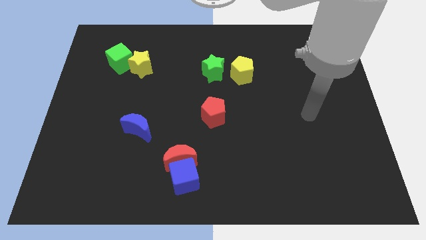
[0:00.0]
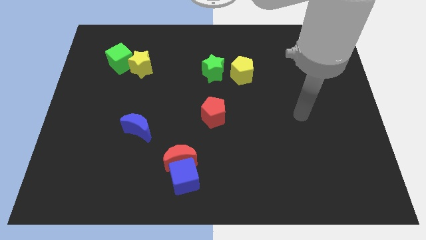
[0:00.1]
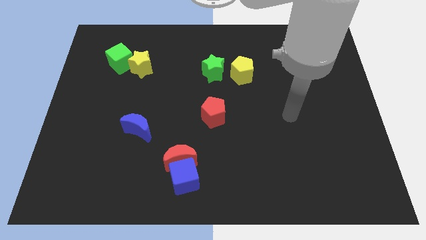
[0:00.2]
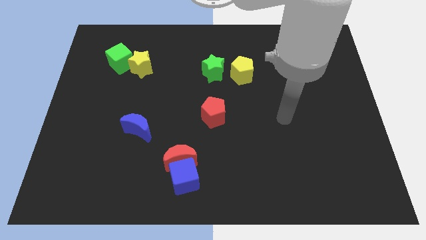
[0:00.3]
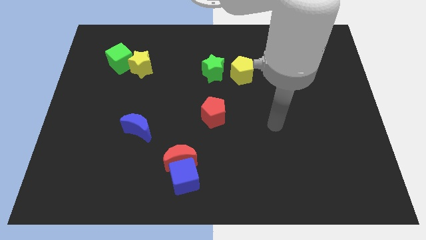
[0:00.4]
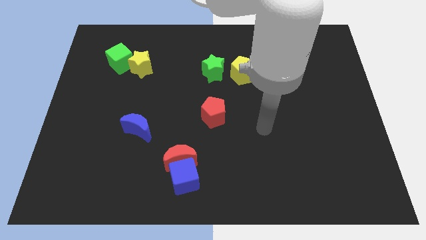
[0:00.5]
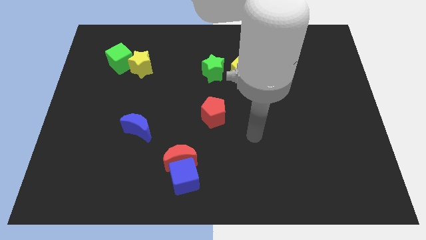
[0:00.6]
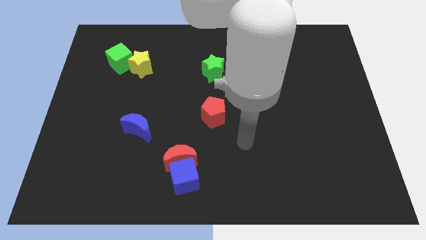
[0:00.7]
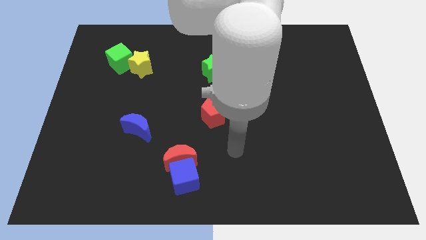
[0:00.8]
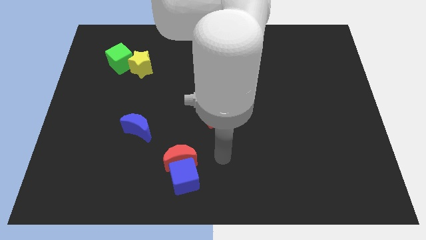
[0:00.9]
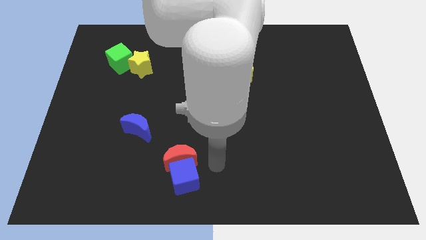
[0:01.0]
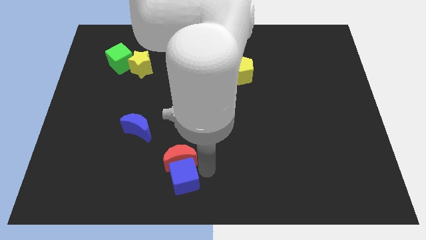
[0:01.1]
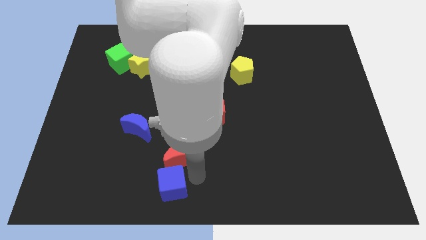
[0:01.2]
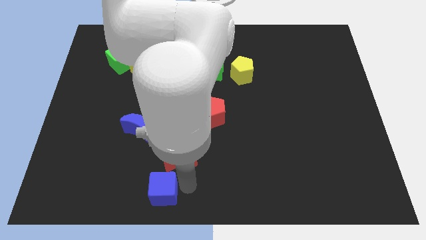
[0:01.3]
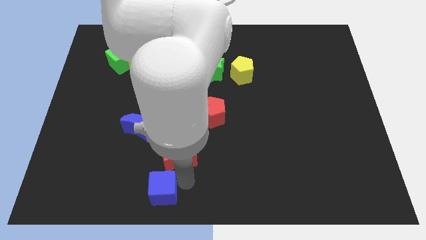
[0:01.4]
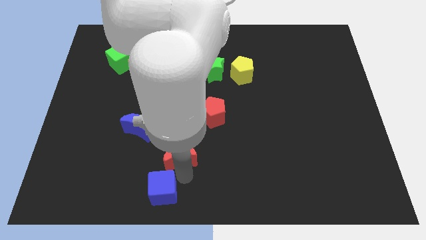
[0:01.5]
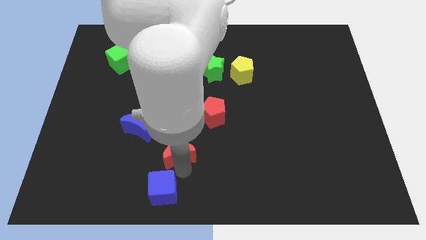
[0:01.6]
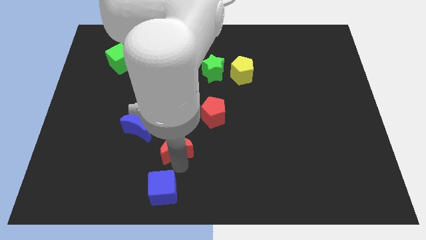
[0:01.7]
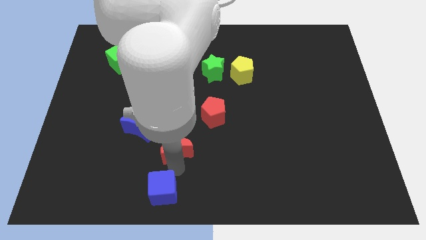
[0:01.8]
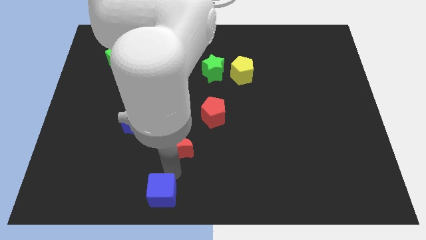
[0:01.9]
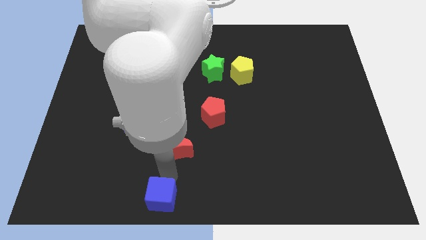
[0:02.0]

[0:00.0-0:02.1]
move the red moon away from the blue cube

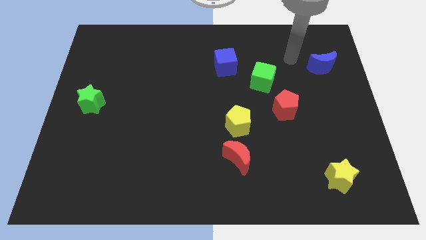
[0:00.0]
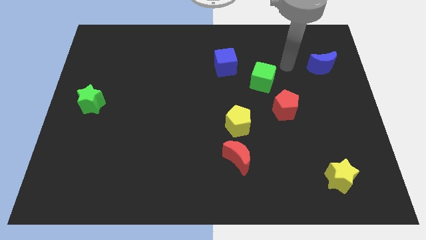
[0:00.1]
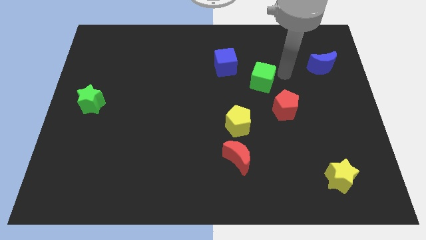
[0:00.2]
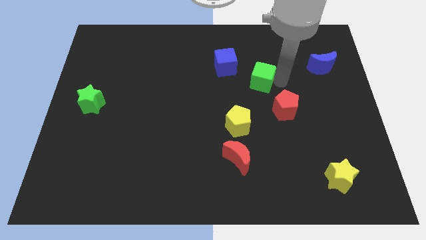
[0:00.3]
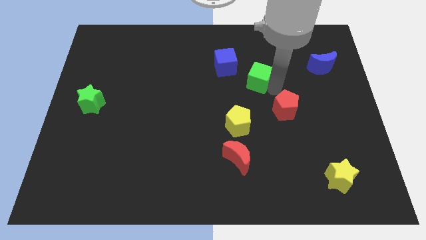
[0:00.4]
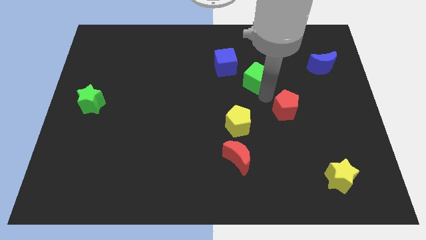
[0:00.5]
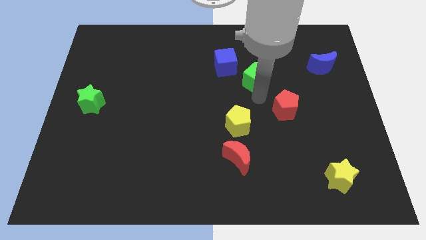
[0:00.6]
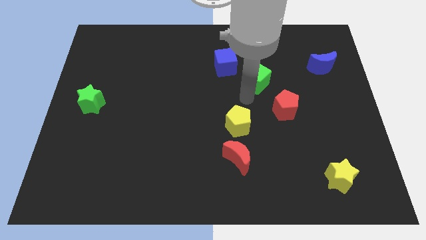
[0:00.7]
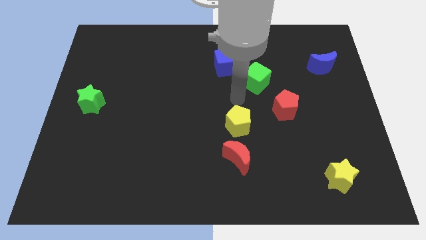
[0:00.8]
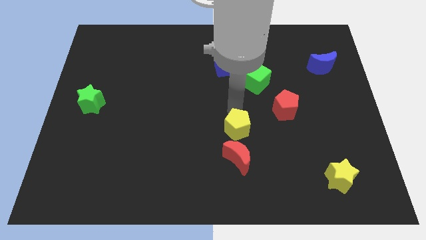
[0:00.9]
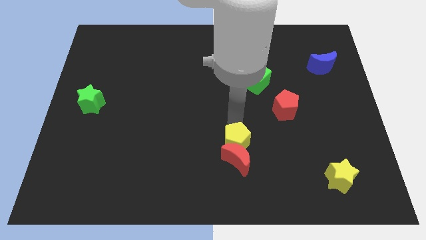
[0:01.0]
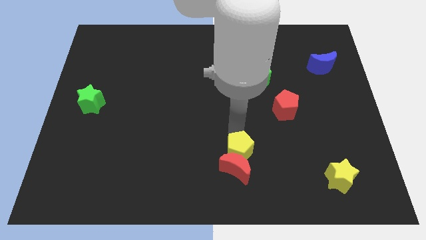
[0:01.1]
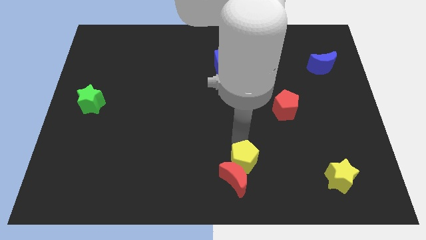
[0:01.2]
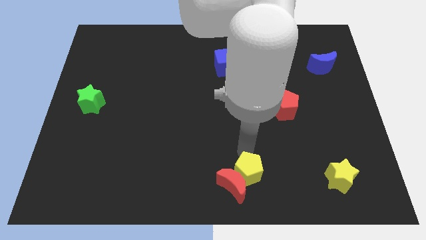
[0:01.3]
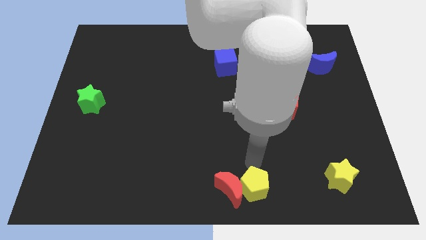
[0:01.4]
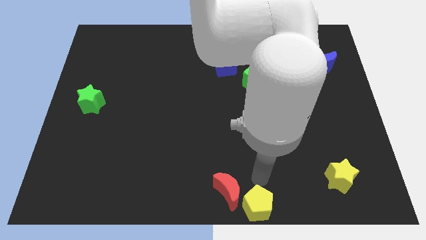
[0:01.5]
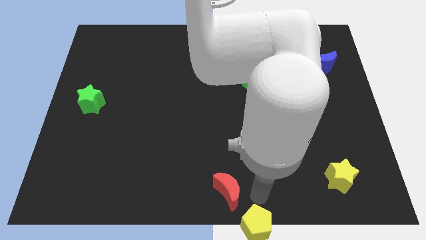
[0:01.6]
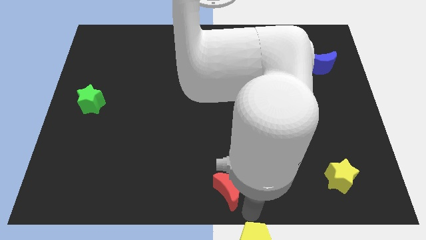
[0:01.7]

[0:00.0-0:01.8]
move the red moon away from the yellow pentagon

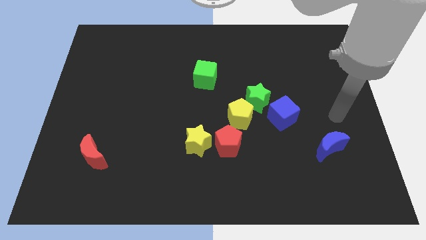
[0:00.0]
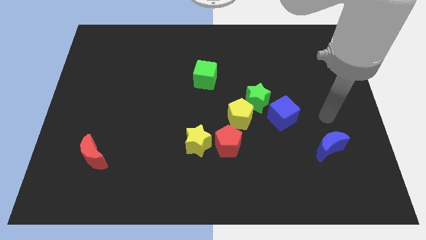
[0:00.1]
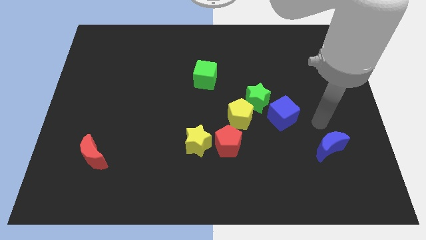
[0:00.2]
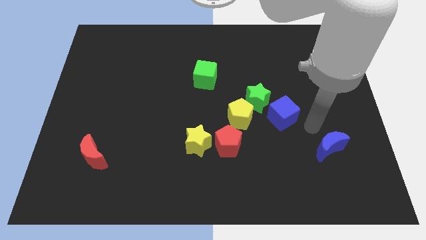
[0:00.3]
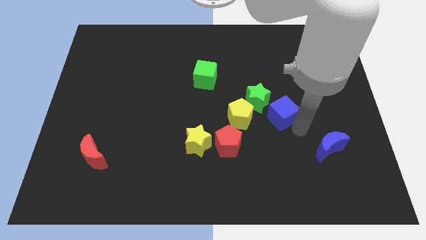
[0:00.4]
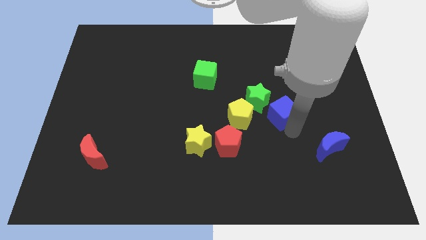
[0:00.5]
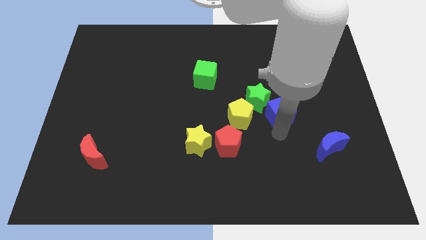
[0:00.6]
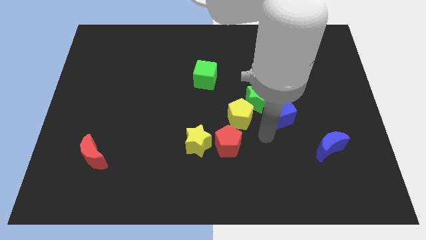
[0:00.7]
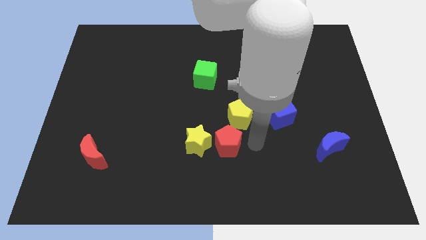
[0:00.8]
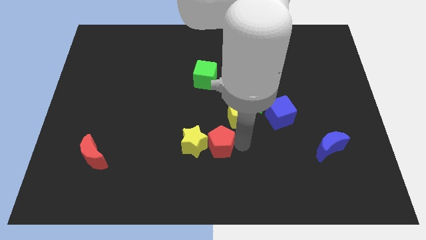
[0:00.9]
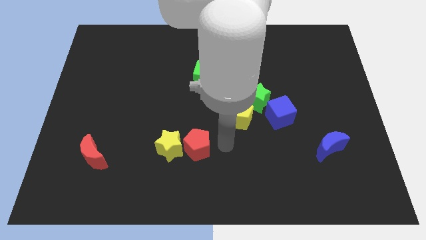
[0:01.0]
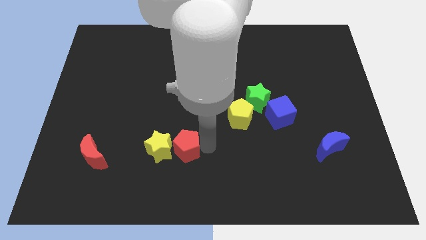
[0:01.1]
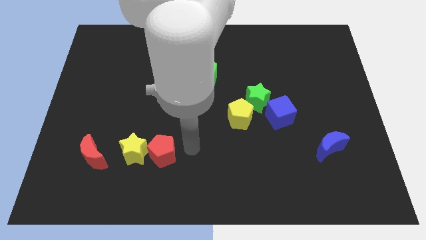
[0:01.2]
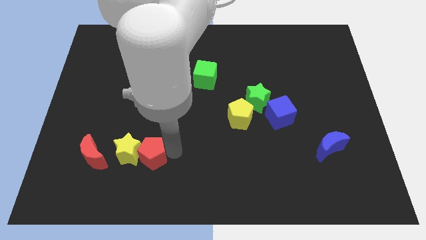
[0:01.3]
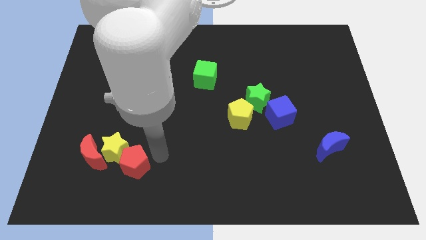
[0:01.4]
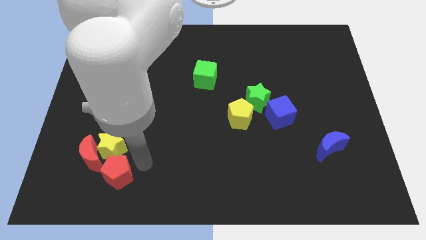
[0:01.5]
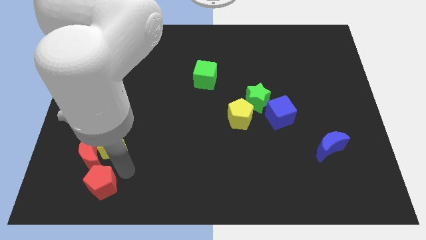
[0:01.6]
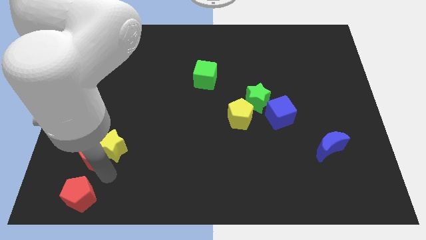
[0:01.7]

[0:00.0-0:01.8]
pull the yellow star apart from the red pentagon

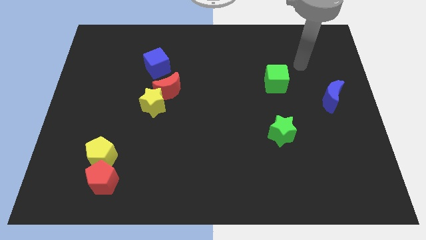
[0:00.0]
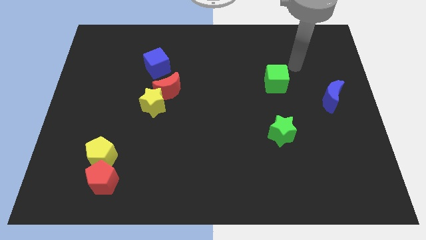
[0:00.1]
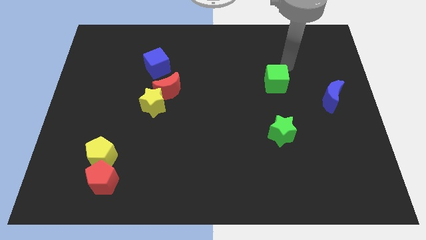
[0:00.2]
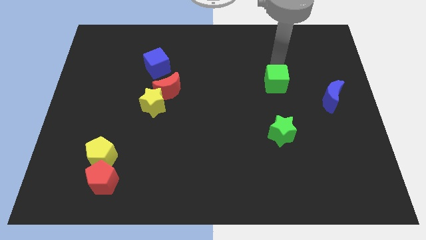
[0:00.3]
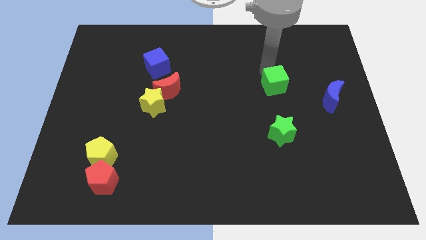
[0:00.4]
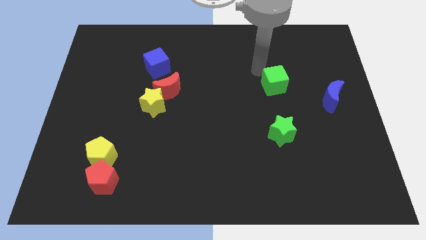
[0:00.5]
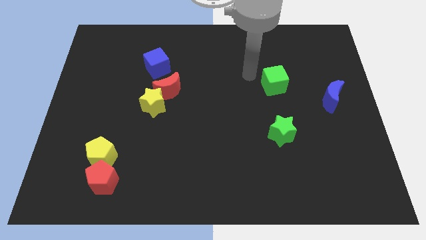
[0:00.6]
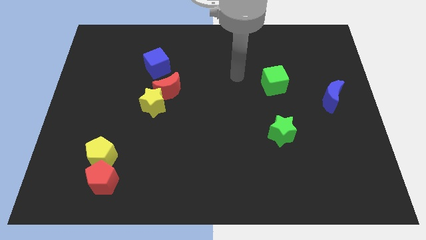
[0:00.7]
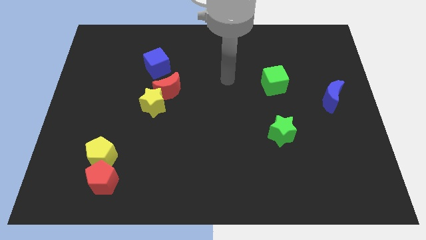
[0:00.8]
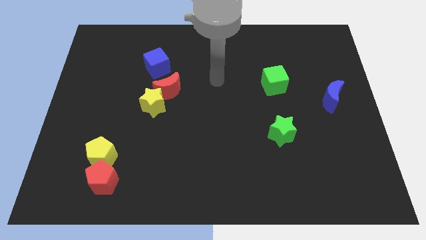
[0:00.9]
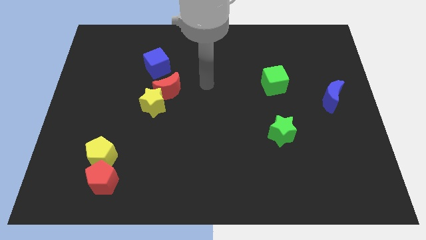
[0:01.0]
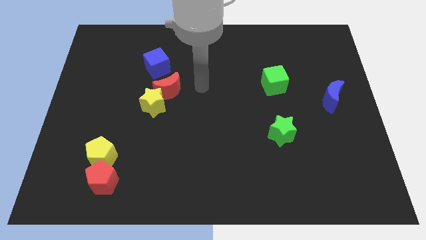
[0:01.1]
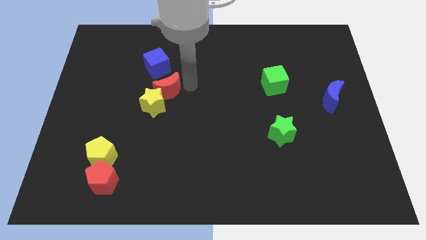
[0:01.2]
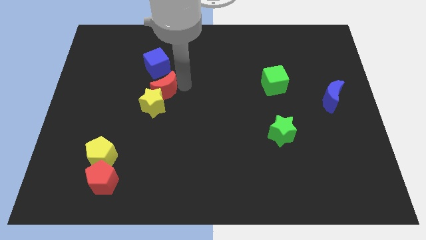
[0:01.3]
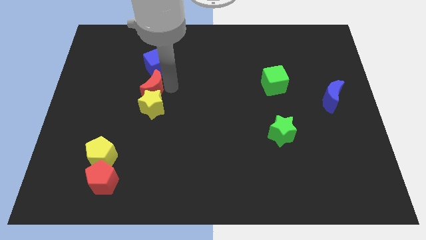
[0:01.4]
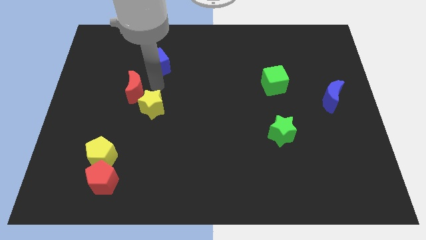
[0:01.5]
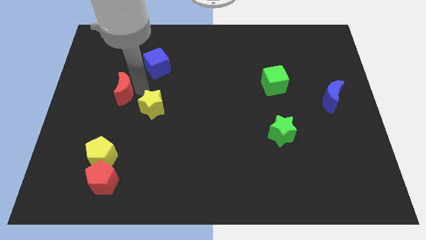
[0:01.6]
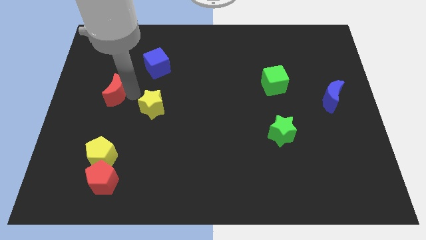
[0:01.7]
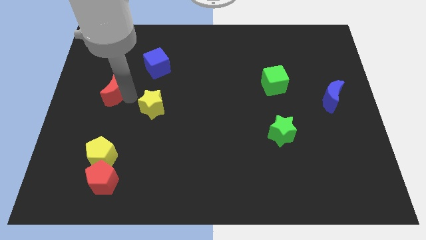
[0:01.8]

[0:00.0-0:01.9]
move the yellow star away from the red moon

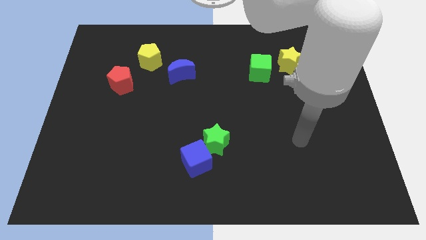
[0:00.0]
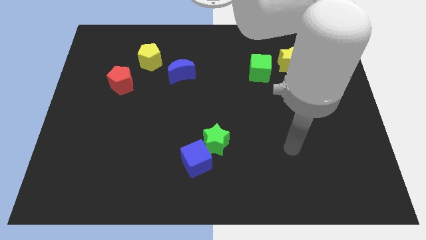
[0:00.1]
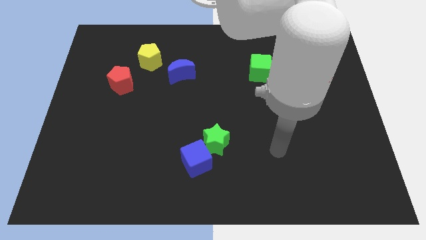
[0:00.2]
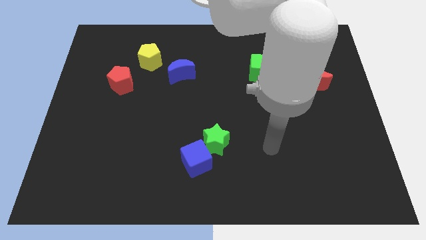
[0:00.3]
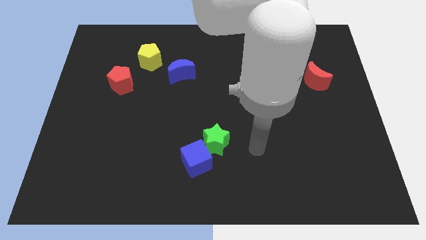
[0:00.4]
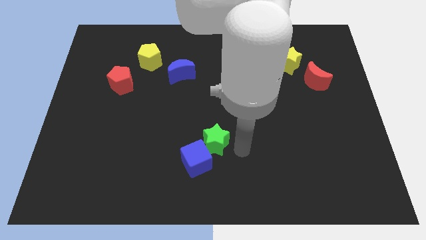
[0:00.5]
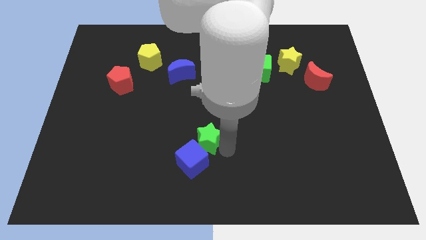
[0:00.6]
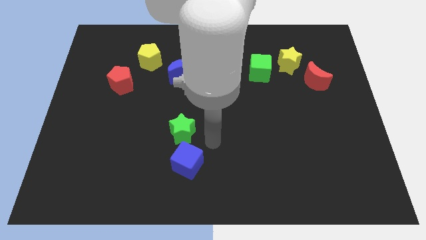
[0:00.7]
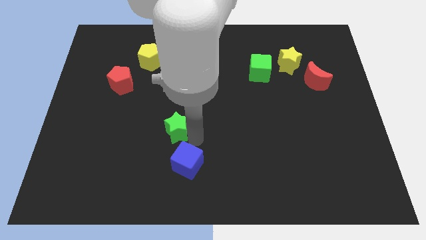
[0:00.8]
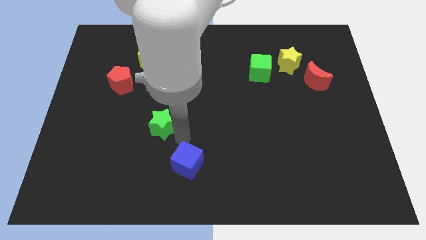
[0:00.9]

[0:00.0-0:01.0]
move the blue cube away from the green star

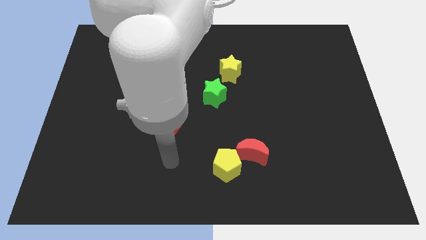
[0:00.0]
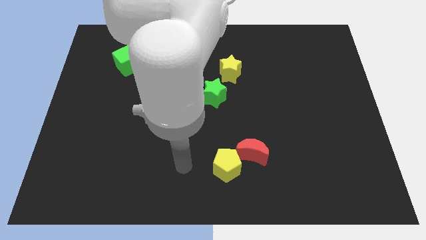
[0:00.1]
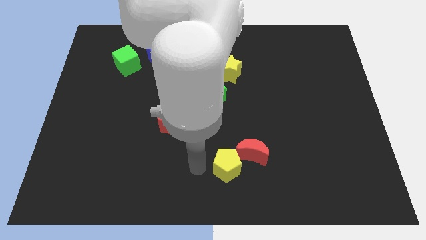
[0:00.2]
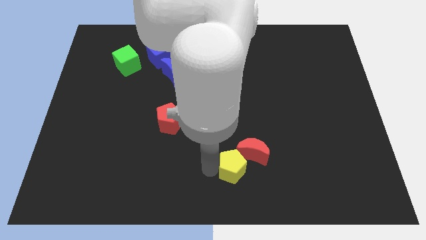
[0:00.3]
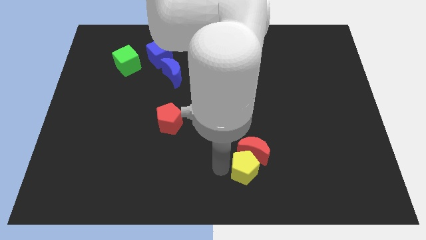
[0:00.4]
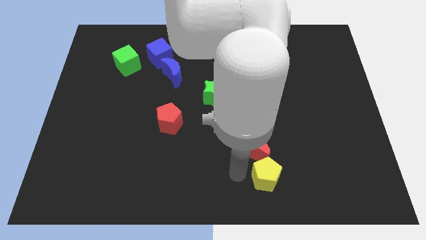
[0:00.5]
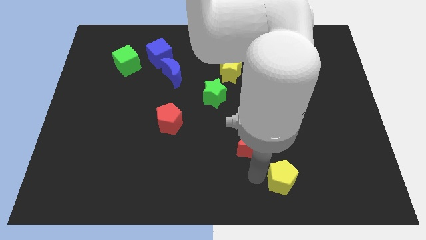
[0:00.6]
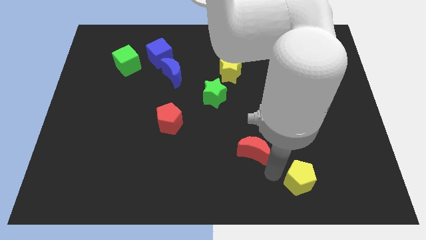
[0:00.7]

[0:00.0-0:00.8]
separate the red moon from the yellow pentagon
